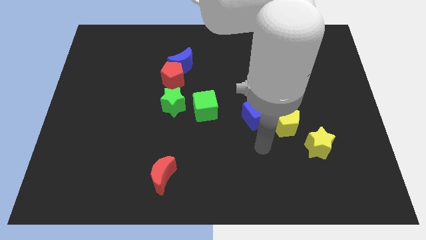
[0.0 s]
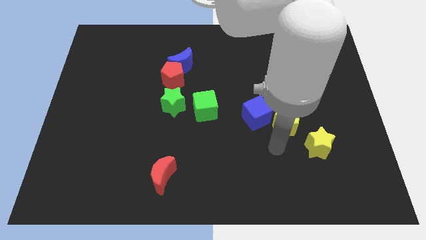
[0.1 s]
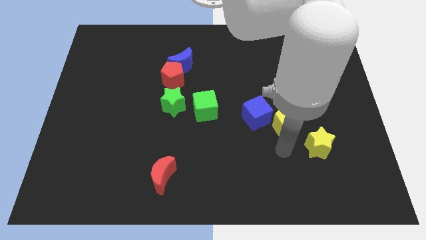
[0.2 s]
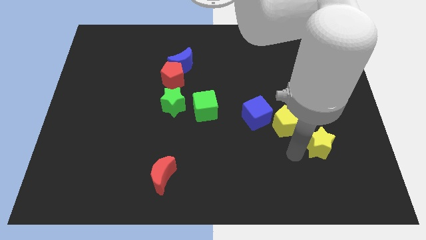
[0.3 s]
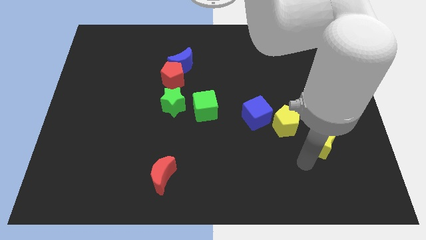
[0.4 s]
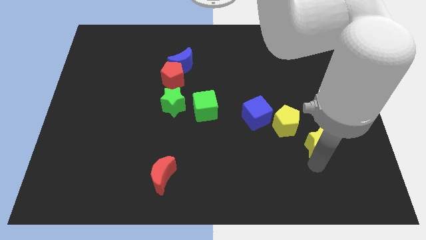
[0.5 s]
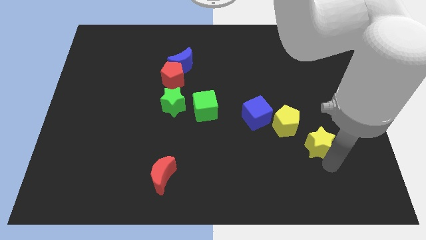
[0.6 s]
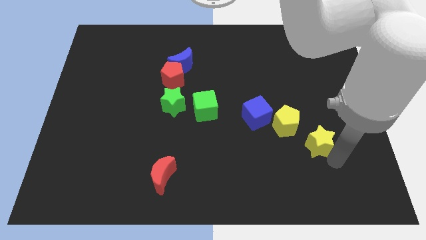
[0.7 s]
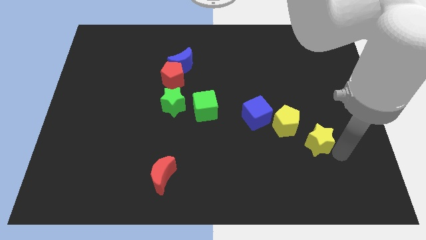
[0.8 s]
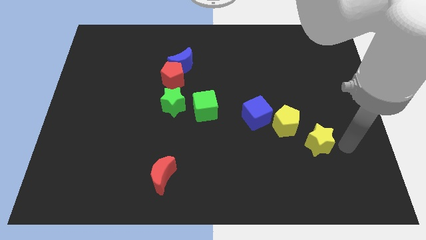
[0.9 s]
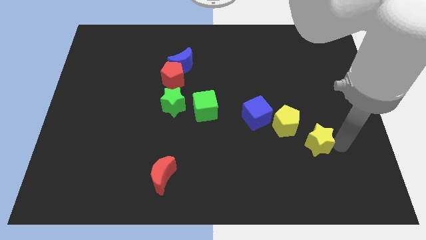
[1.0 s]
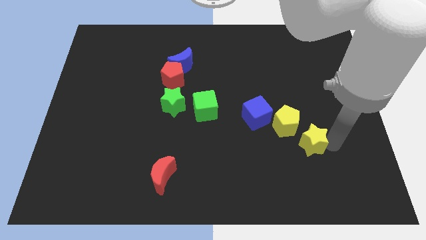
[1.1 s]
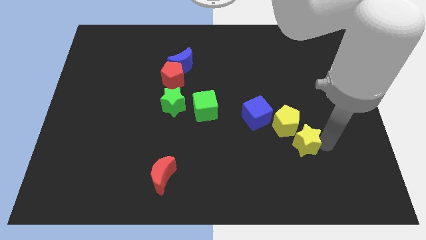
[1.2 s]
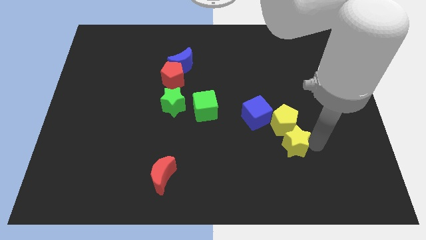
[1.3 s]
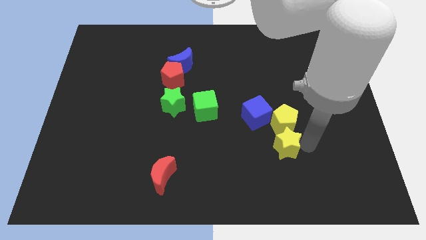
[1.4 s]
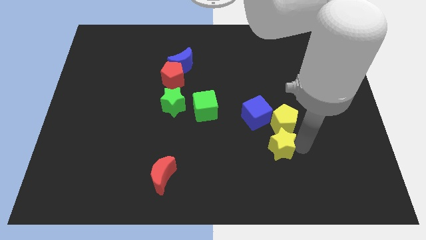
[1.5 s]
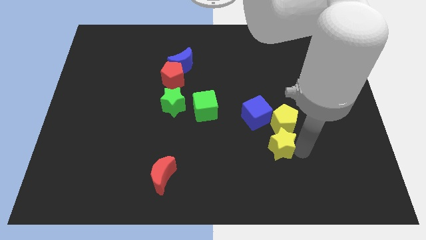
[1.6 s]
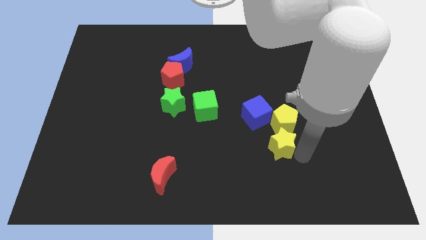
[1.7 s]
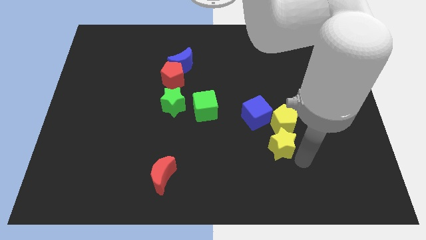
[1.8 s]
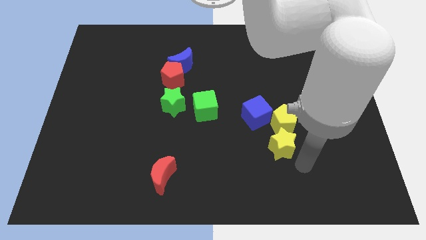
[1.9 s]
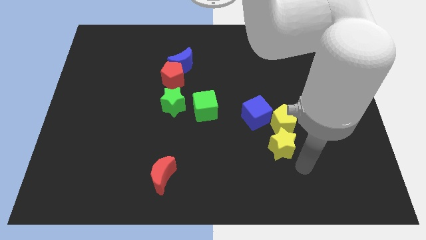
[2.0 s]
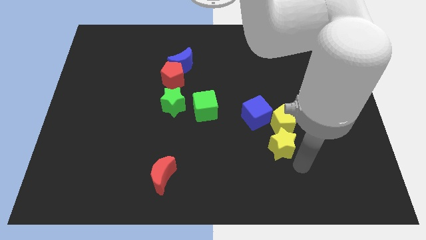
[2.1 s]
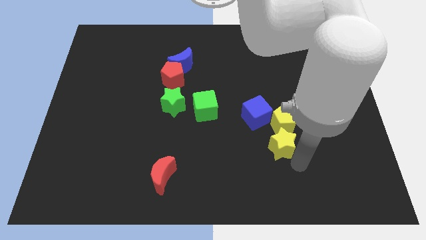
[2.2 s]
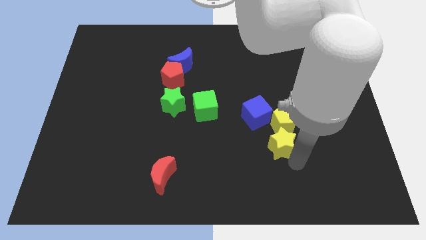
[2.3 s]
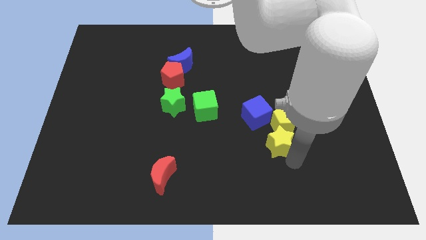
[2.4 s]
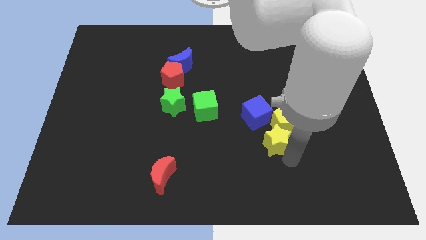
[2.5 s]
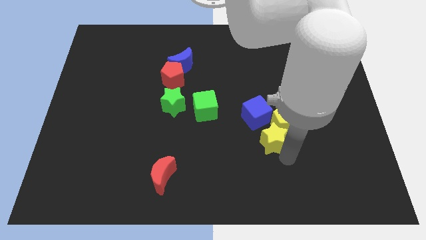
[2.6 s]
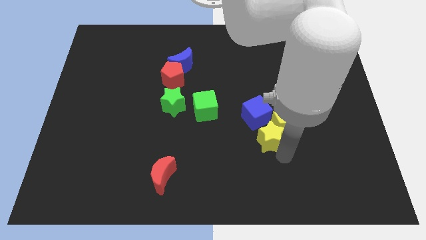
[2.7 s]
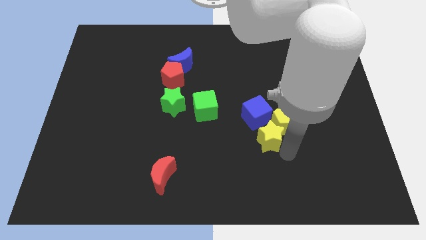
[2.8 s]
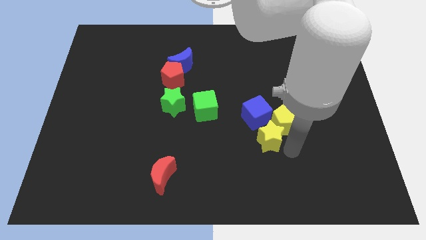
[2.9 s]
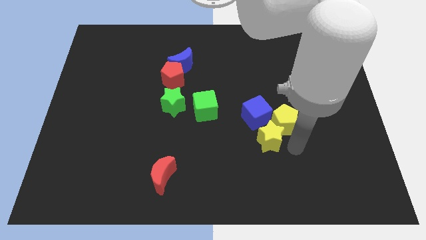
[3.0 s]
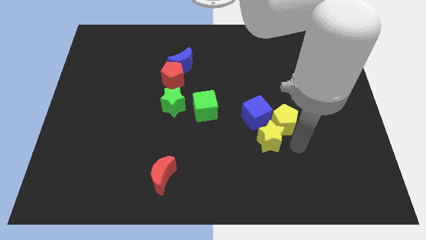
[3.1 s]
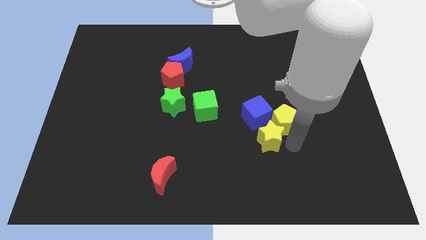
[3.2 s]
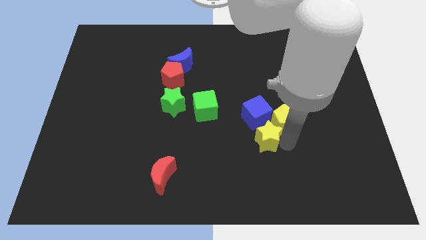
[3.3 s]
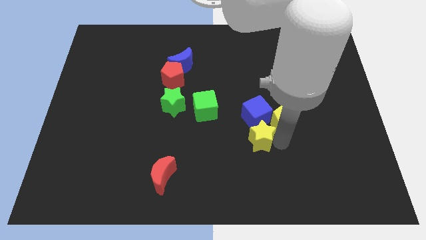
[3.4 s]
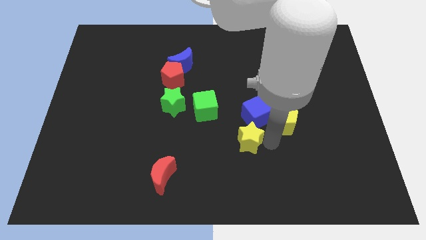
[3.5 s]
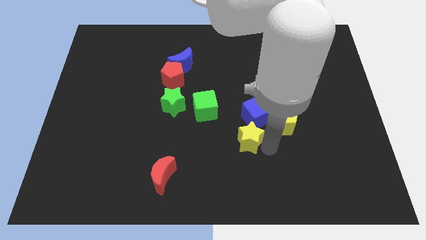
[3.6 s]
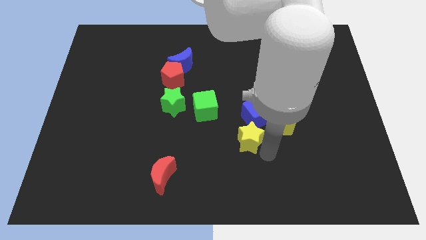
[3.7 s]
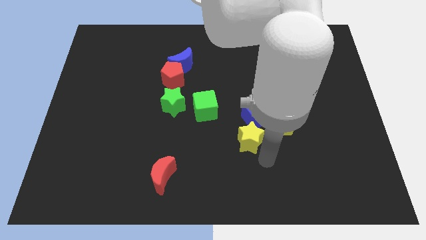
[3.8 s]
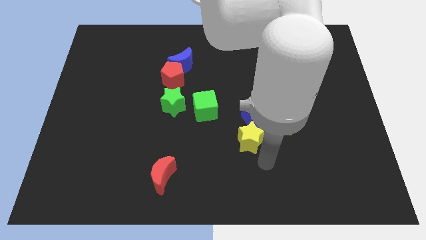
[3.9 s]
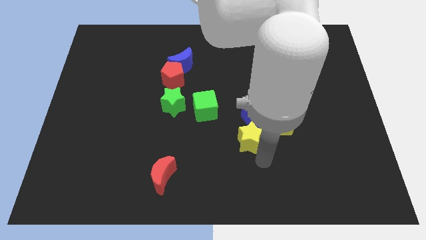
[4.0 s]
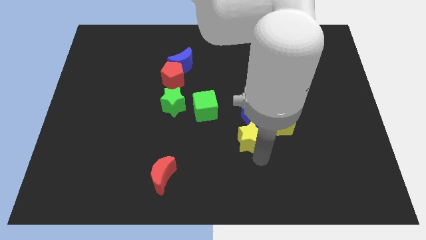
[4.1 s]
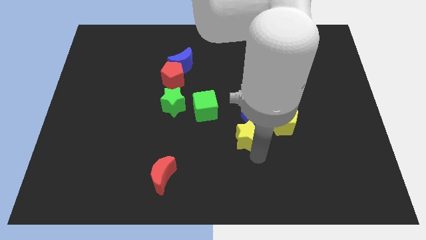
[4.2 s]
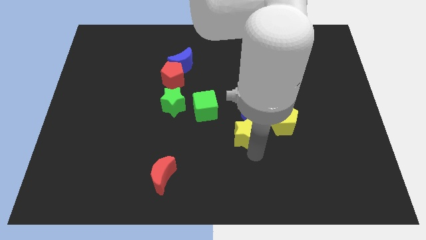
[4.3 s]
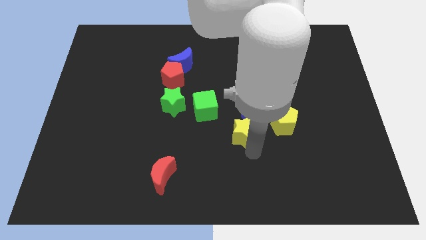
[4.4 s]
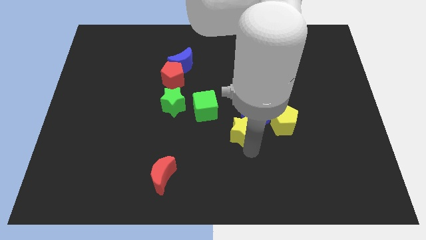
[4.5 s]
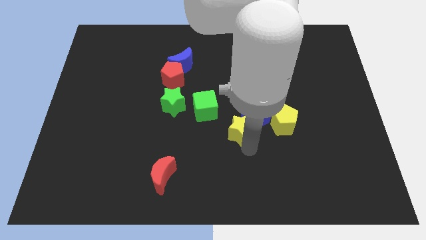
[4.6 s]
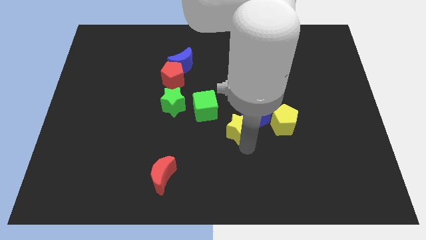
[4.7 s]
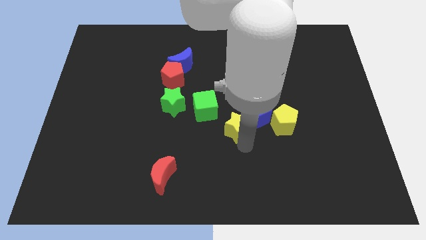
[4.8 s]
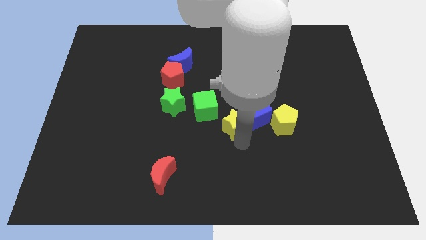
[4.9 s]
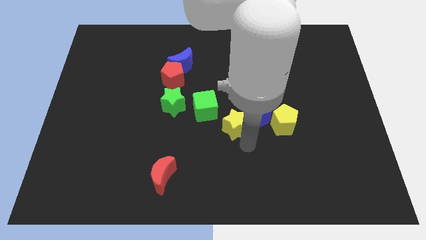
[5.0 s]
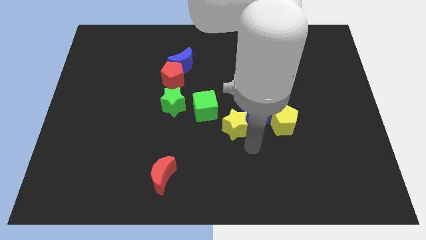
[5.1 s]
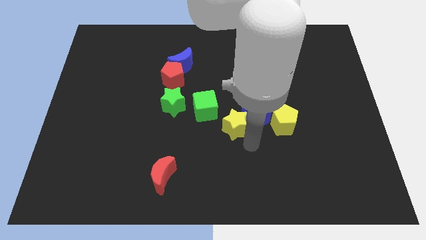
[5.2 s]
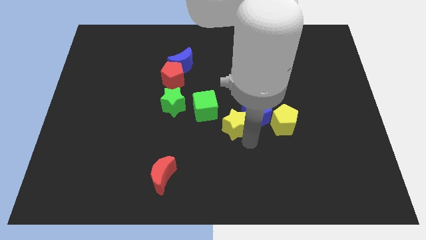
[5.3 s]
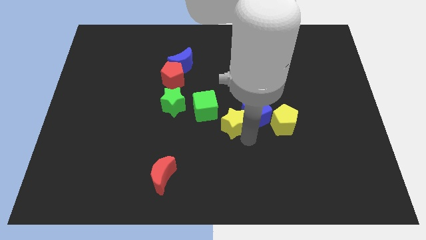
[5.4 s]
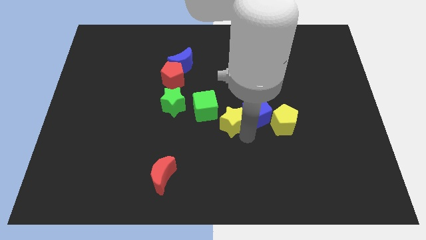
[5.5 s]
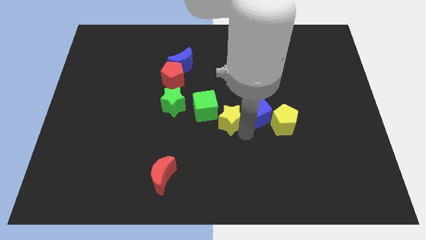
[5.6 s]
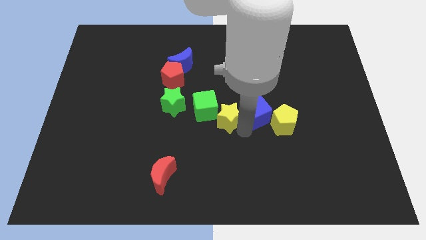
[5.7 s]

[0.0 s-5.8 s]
slide the yellow star right of the green star

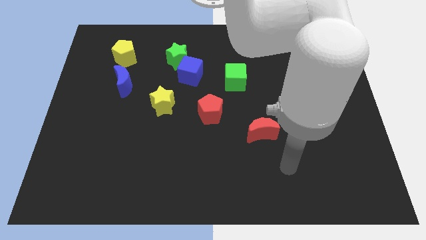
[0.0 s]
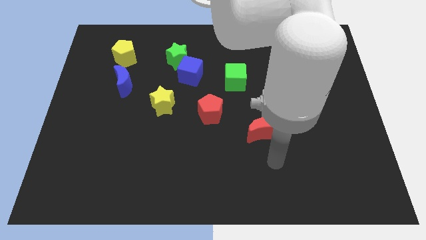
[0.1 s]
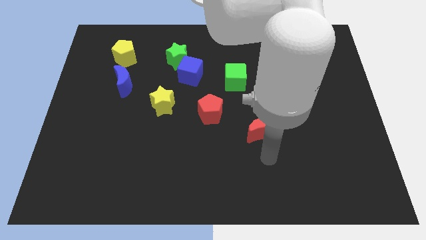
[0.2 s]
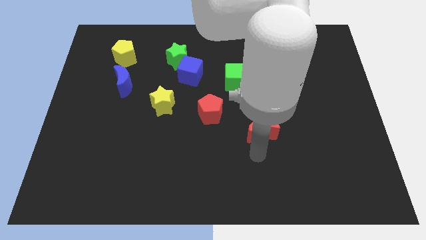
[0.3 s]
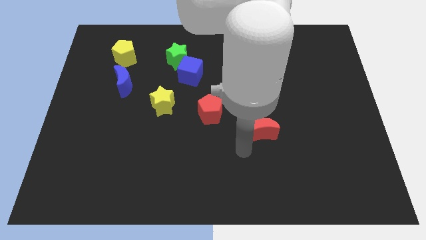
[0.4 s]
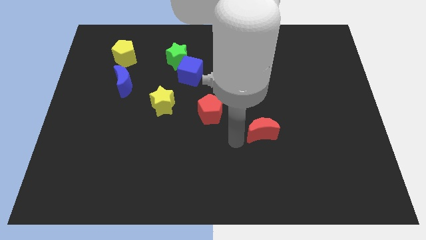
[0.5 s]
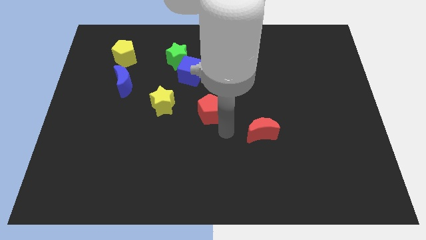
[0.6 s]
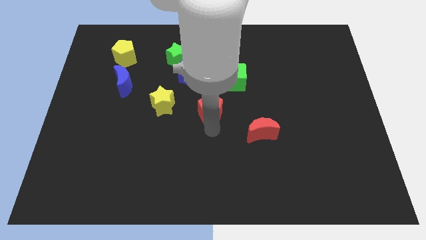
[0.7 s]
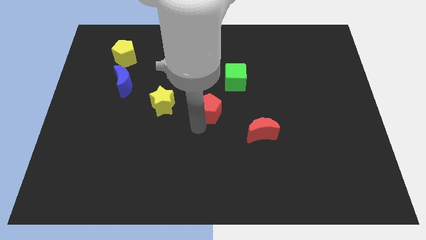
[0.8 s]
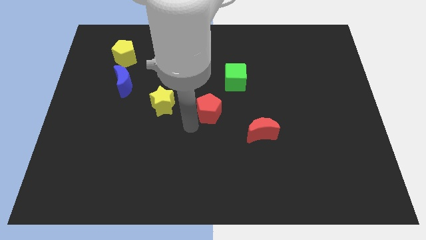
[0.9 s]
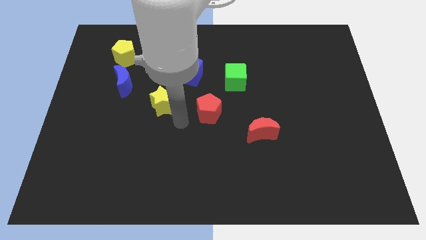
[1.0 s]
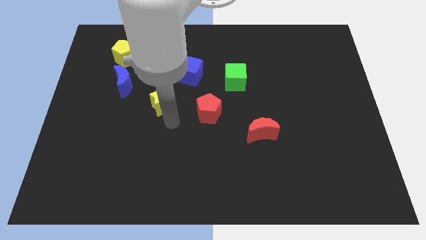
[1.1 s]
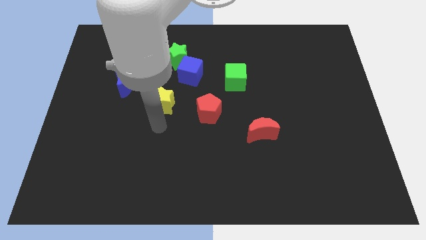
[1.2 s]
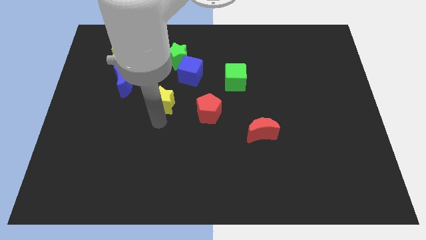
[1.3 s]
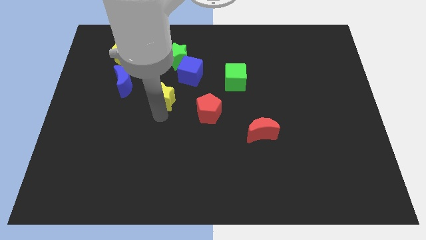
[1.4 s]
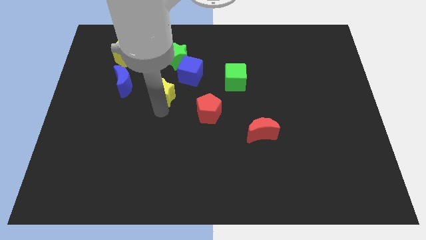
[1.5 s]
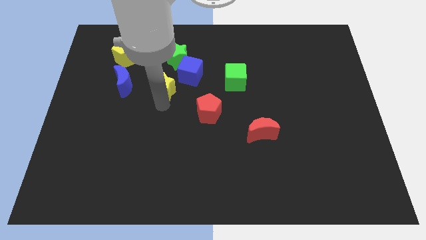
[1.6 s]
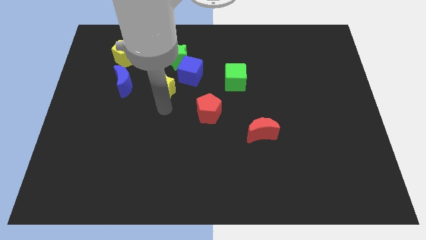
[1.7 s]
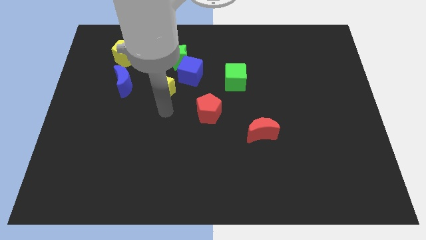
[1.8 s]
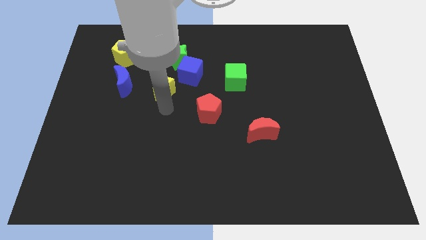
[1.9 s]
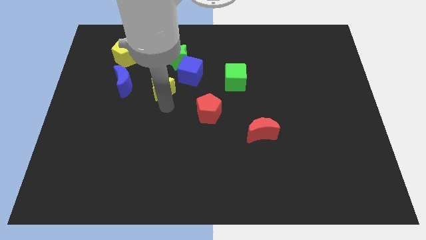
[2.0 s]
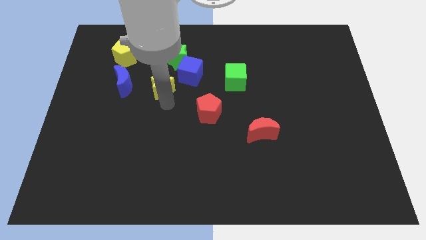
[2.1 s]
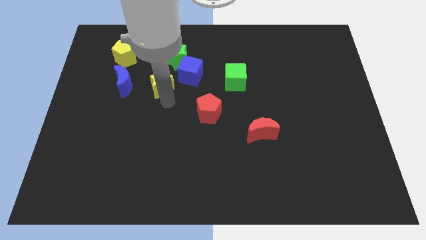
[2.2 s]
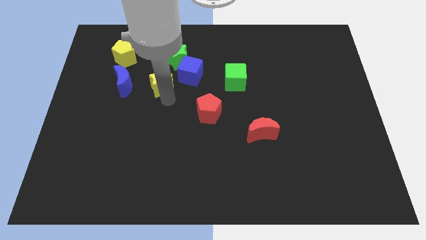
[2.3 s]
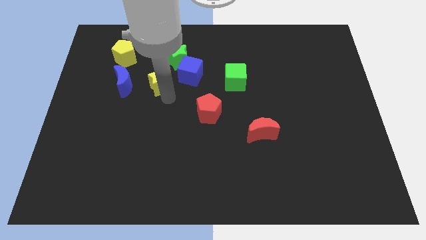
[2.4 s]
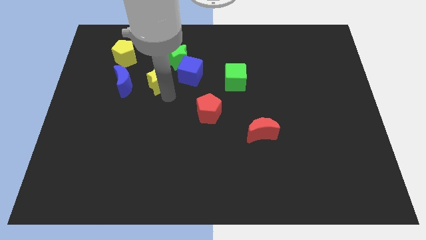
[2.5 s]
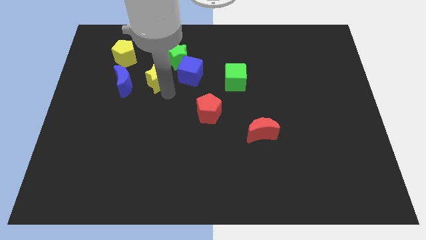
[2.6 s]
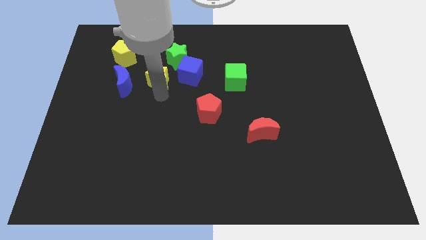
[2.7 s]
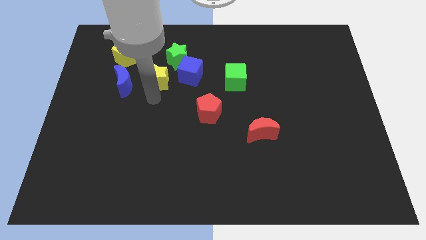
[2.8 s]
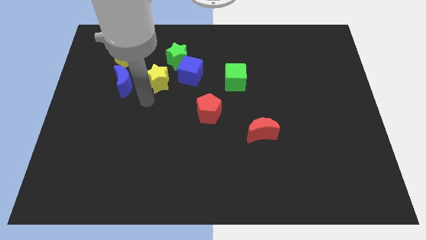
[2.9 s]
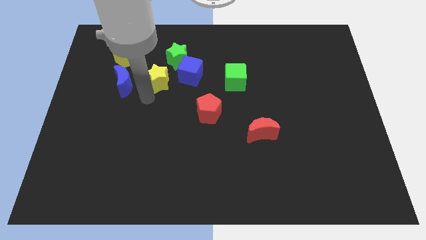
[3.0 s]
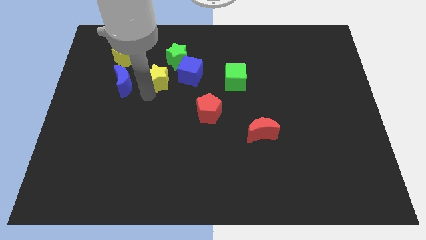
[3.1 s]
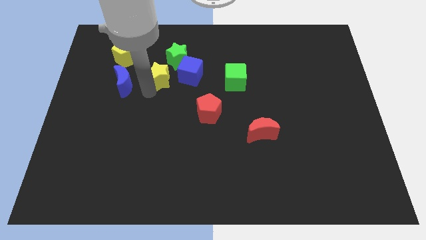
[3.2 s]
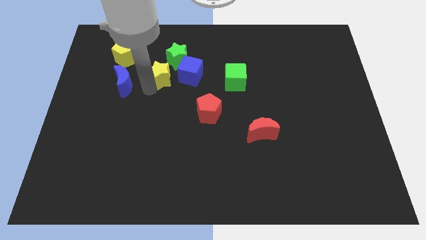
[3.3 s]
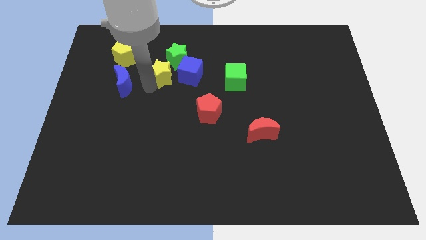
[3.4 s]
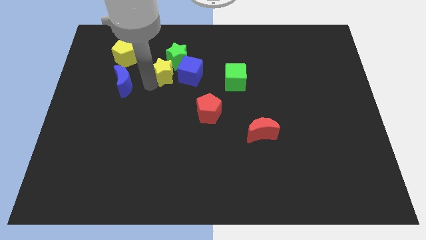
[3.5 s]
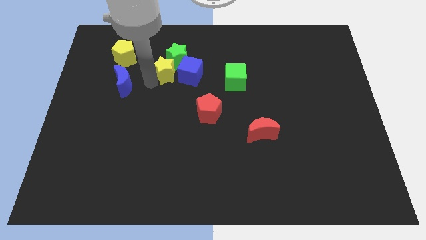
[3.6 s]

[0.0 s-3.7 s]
put the yellow star to the top left of the blue cube
